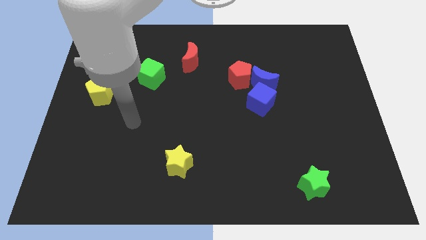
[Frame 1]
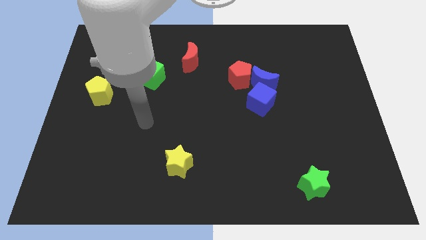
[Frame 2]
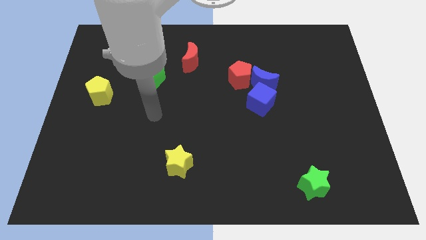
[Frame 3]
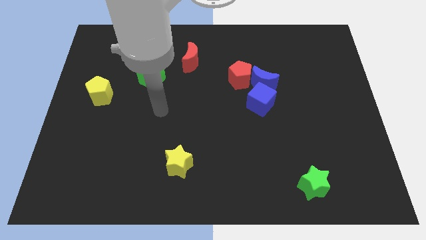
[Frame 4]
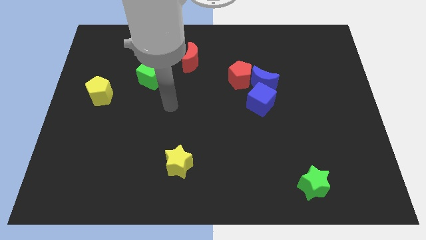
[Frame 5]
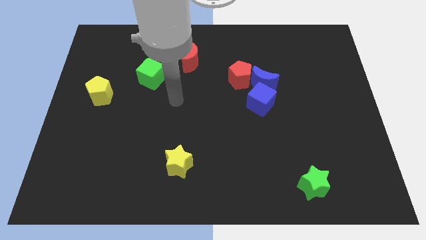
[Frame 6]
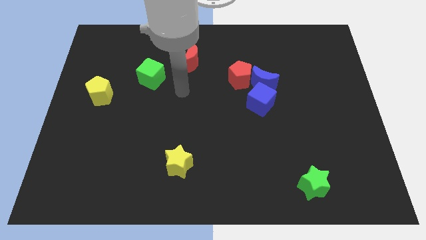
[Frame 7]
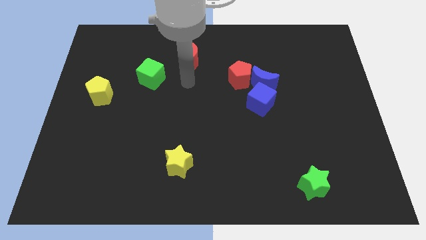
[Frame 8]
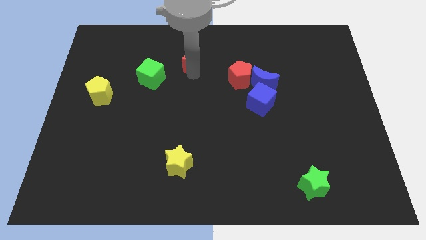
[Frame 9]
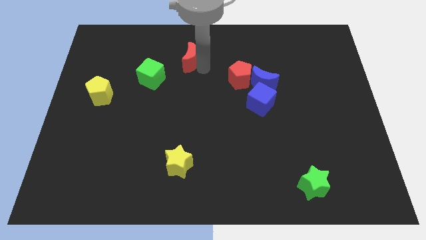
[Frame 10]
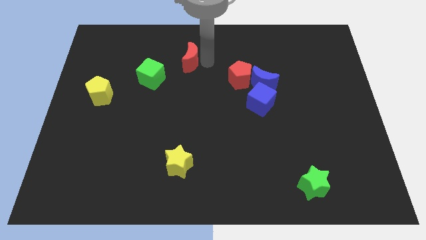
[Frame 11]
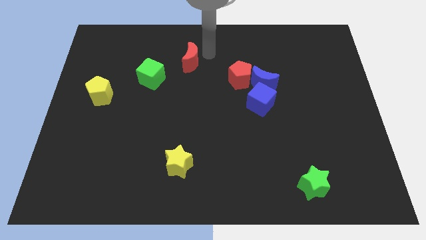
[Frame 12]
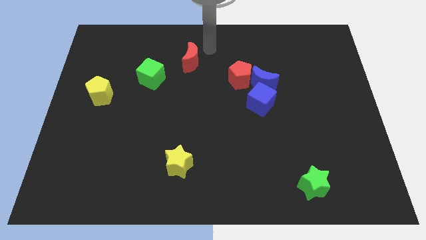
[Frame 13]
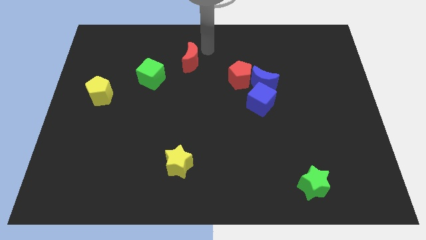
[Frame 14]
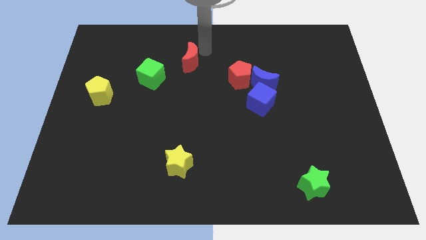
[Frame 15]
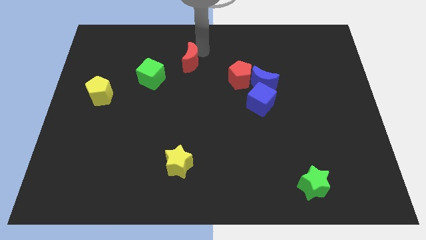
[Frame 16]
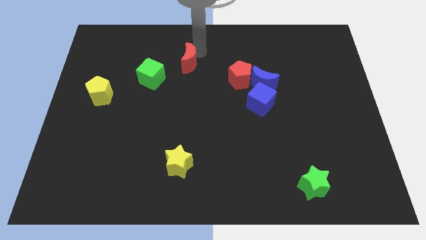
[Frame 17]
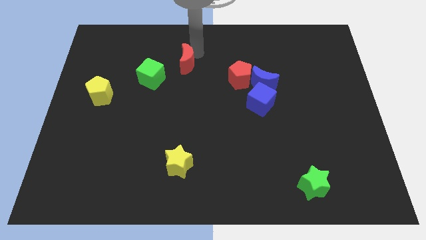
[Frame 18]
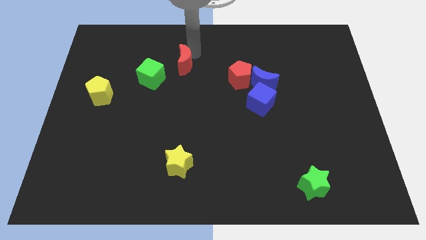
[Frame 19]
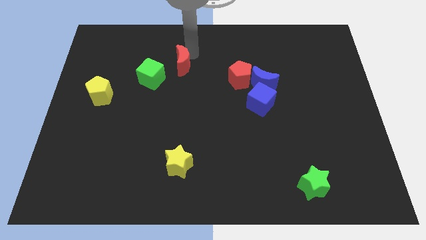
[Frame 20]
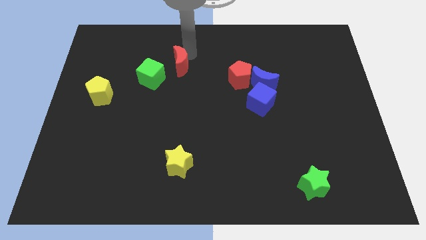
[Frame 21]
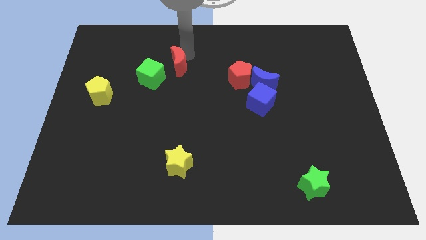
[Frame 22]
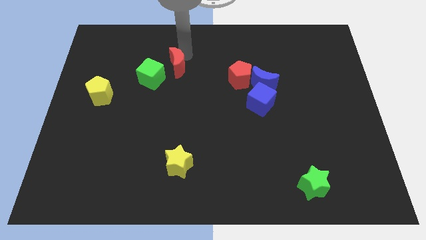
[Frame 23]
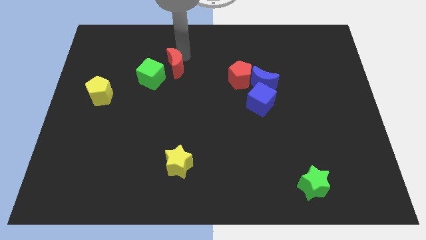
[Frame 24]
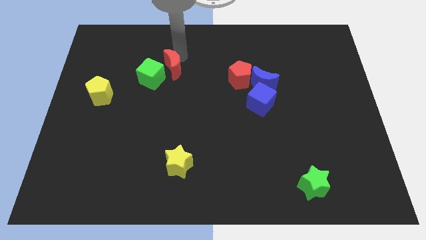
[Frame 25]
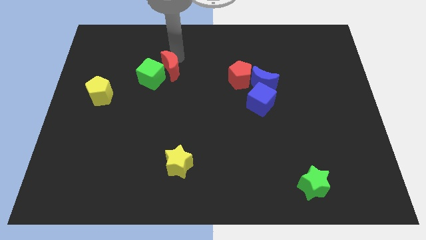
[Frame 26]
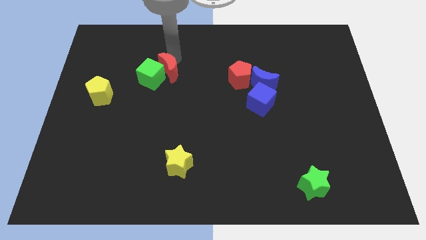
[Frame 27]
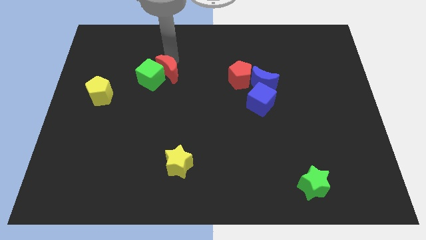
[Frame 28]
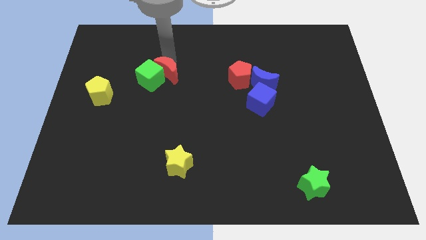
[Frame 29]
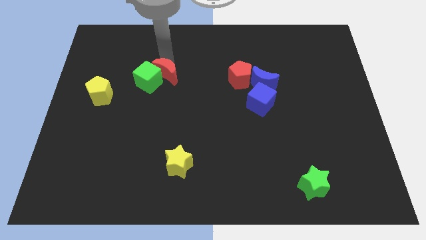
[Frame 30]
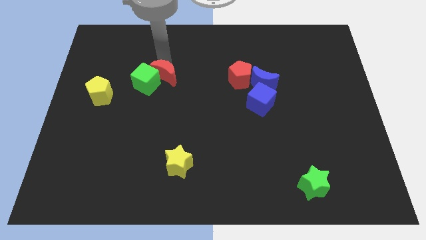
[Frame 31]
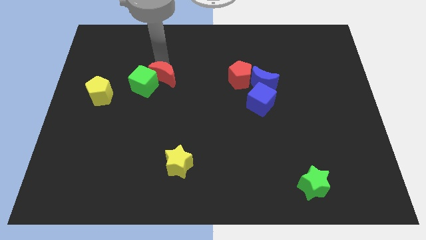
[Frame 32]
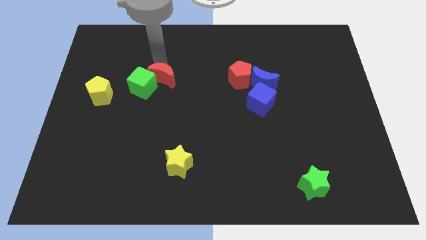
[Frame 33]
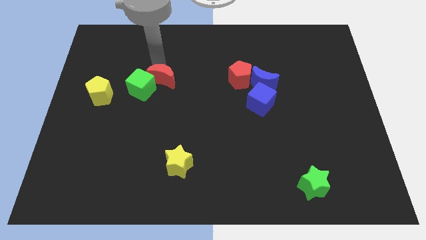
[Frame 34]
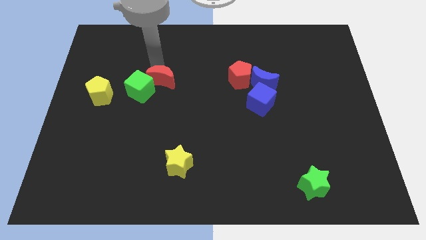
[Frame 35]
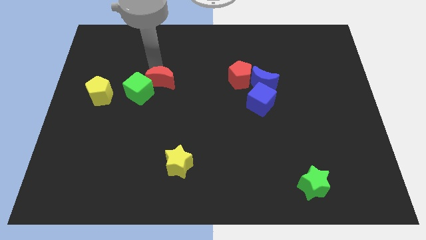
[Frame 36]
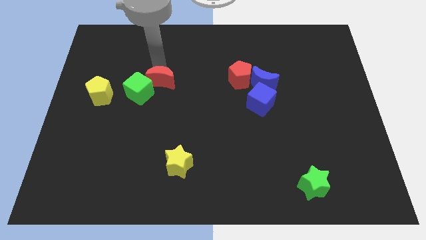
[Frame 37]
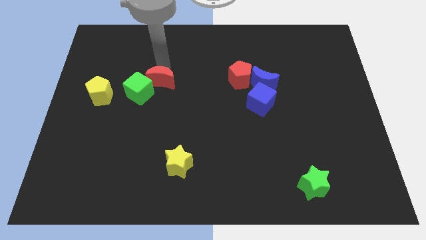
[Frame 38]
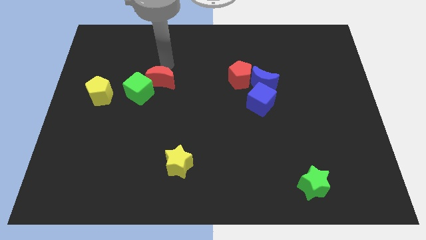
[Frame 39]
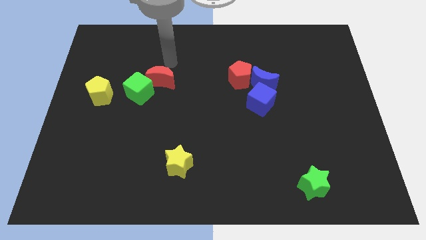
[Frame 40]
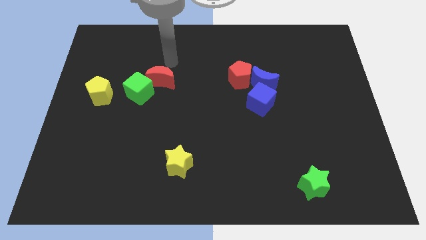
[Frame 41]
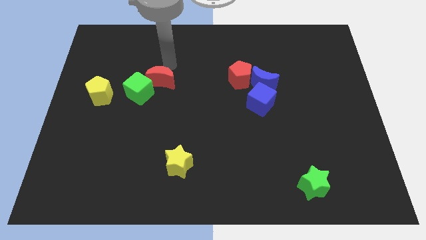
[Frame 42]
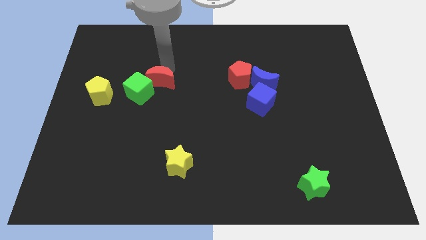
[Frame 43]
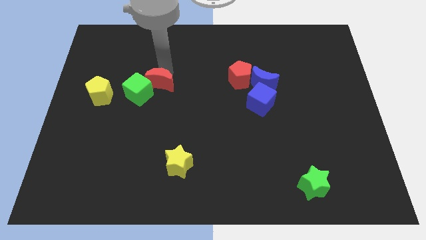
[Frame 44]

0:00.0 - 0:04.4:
move the red moon to the right side of the yellow pentagon

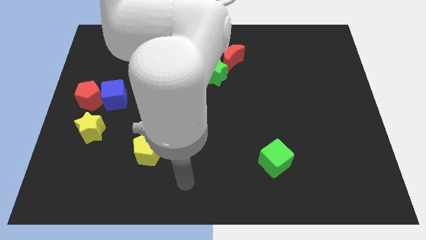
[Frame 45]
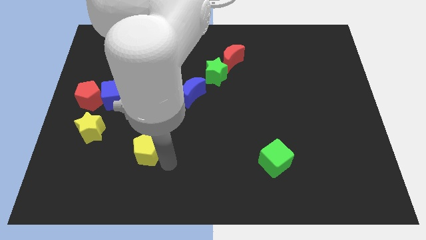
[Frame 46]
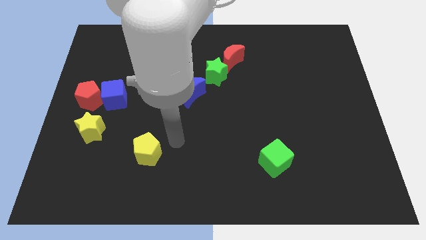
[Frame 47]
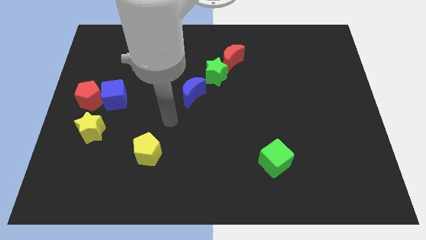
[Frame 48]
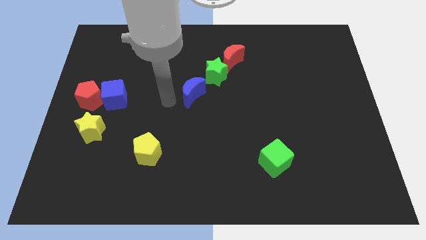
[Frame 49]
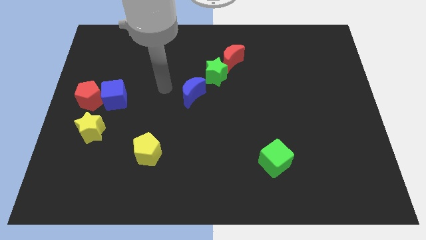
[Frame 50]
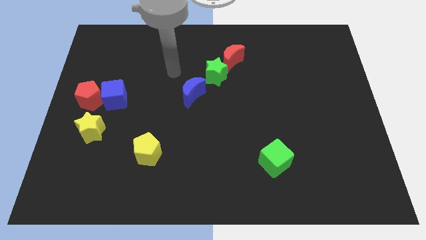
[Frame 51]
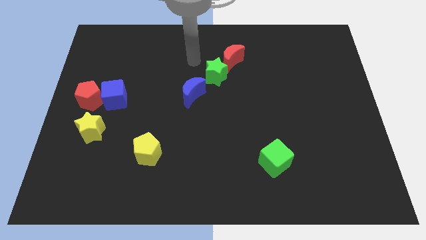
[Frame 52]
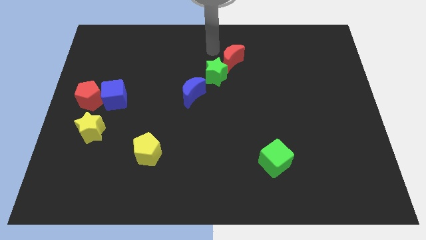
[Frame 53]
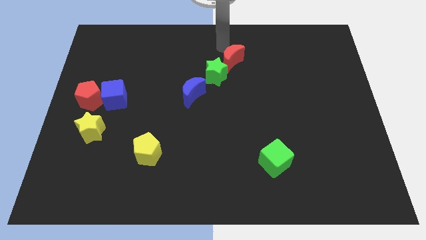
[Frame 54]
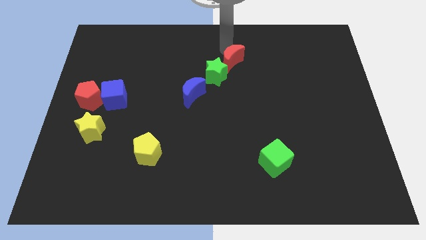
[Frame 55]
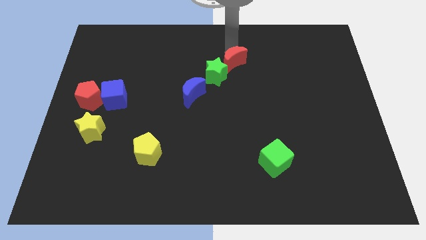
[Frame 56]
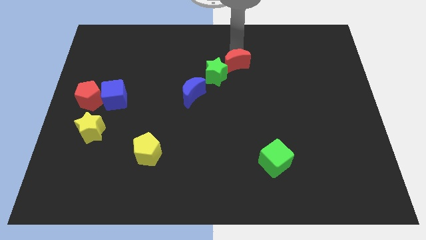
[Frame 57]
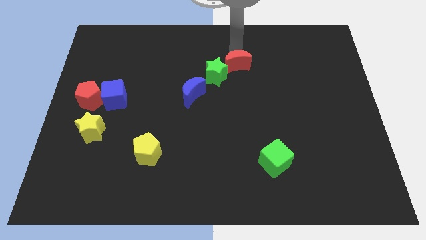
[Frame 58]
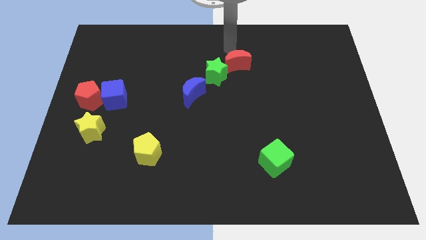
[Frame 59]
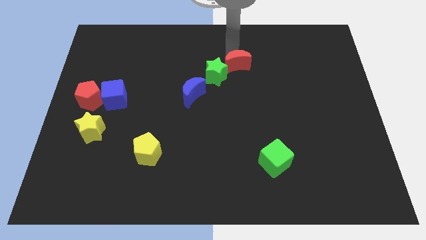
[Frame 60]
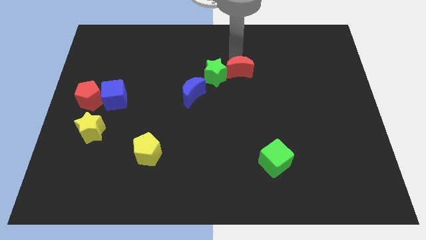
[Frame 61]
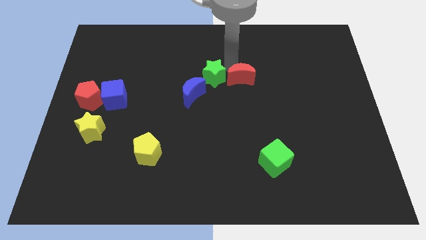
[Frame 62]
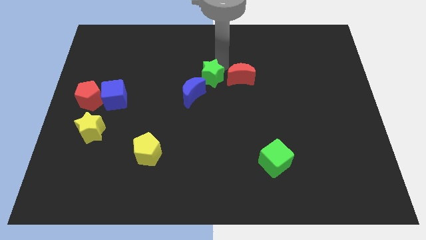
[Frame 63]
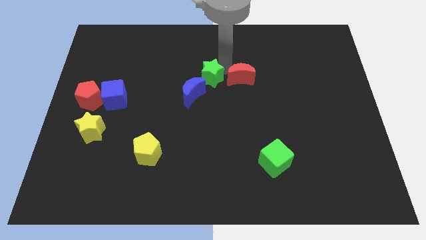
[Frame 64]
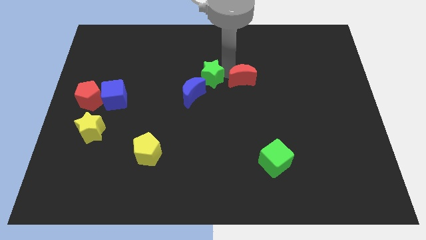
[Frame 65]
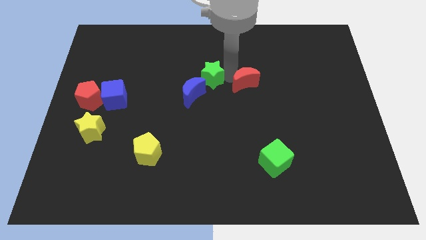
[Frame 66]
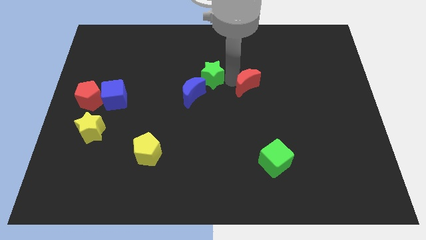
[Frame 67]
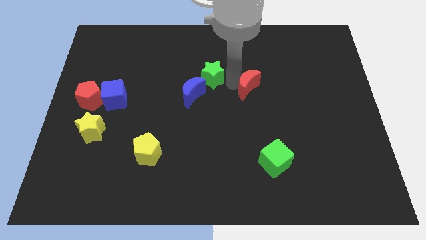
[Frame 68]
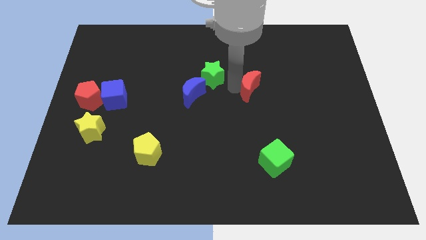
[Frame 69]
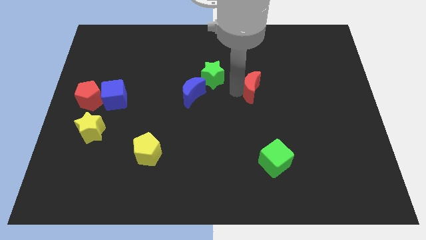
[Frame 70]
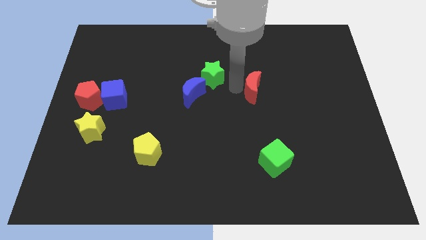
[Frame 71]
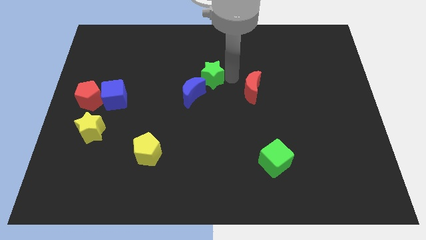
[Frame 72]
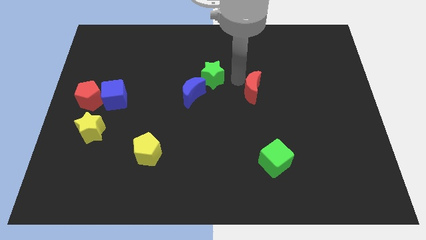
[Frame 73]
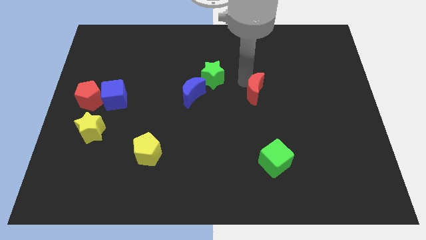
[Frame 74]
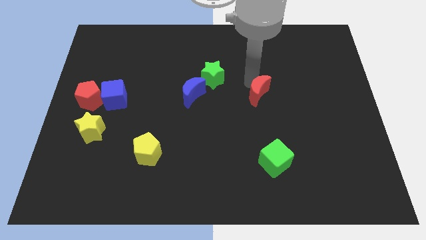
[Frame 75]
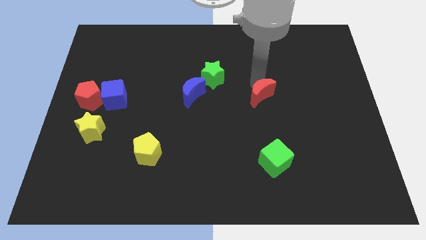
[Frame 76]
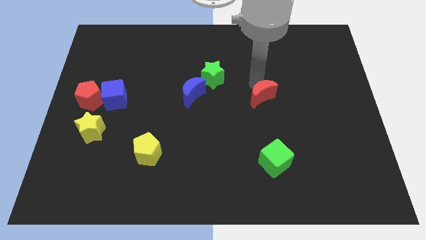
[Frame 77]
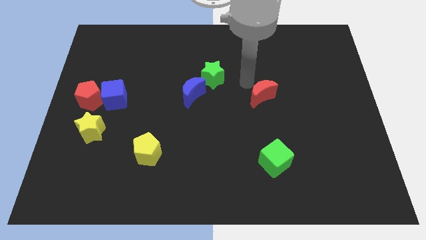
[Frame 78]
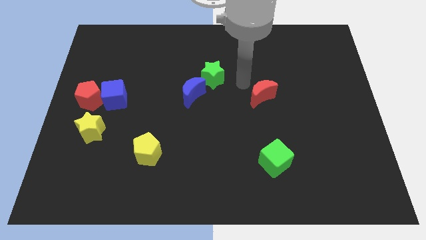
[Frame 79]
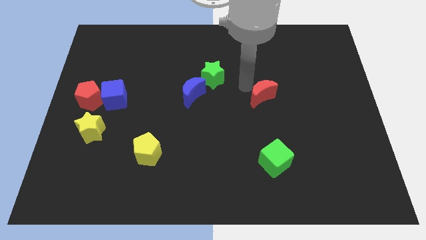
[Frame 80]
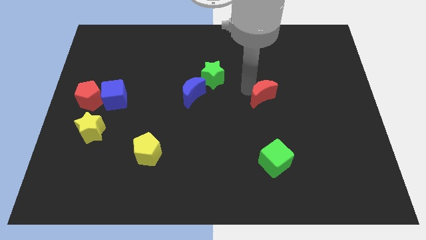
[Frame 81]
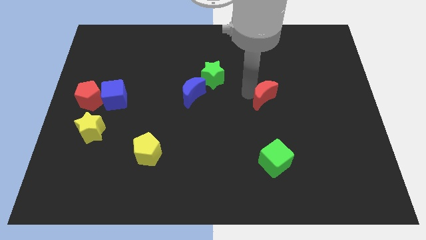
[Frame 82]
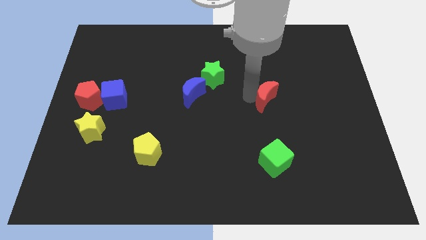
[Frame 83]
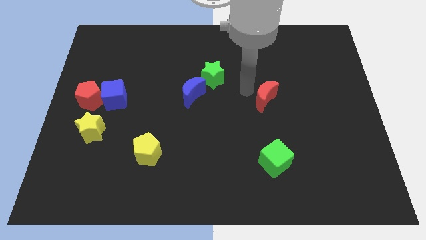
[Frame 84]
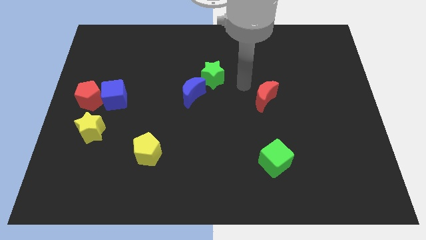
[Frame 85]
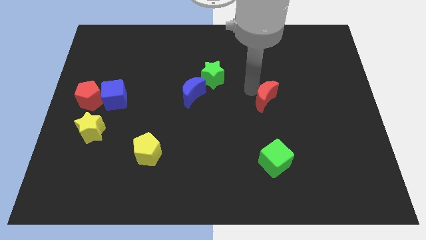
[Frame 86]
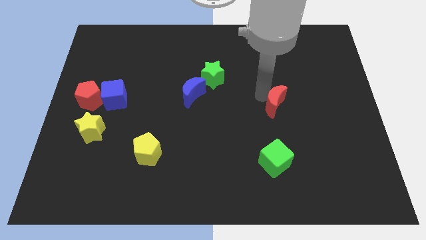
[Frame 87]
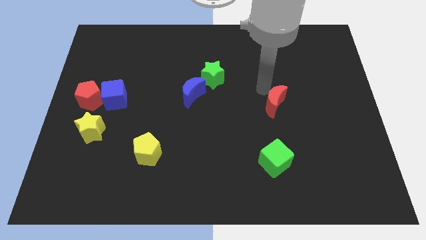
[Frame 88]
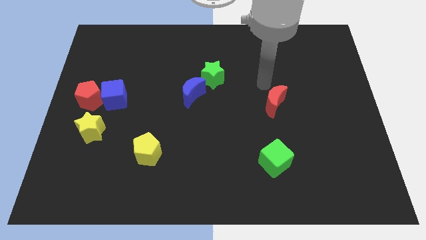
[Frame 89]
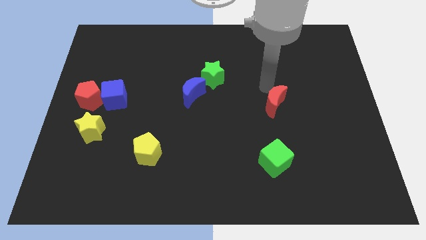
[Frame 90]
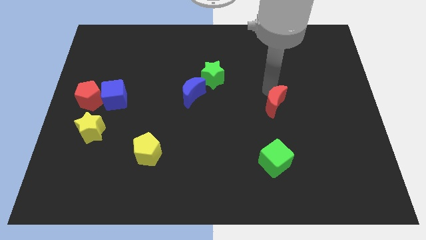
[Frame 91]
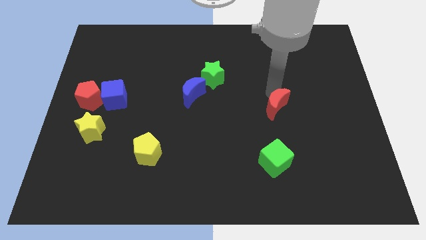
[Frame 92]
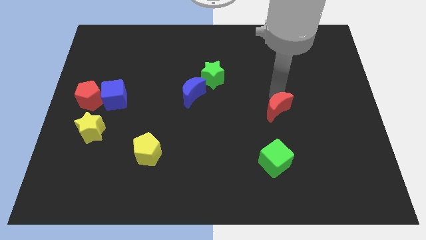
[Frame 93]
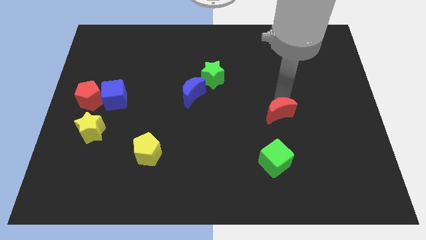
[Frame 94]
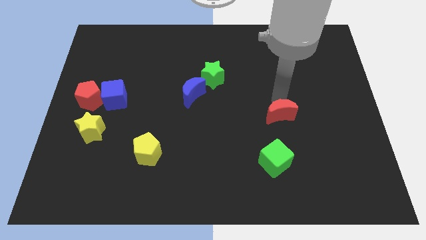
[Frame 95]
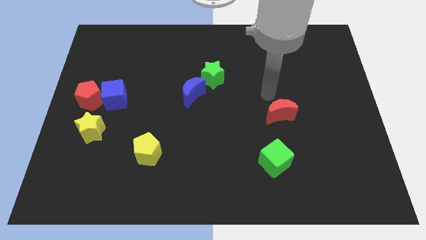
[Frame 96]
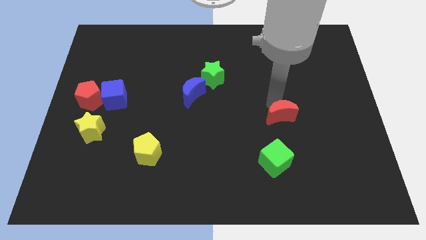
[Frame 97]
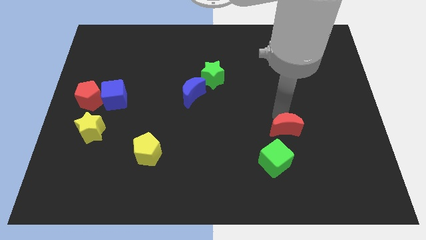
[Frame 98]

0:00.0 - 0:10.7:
slide the red moon to the top right of the green cube
